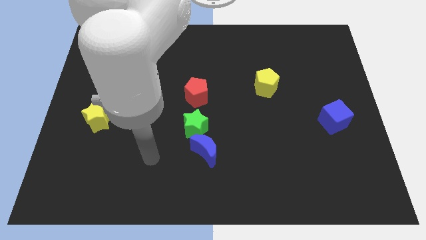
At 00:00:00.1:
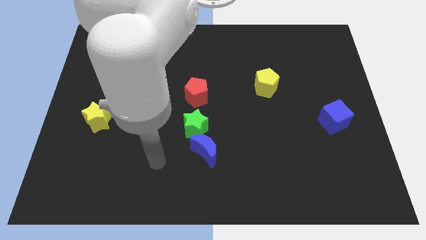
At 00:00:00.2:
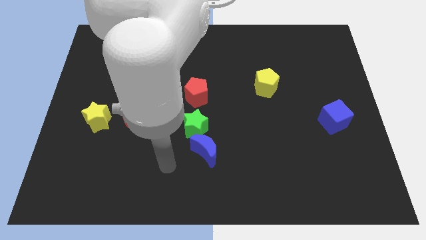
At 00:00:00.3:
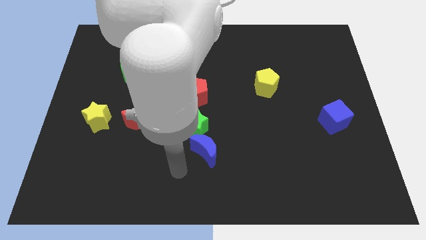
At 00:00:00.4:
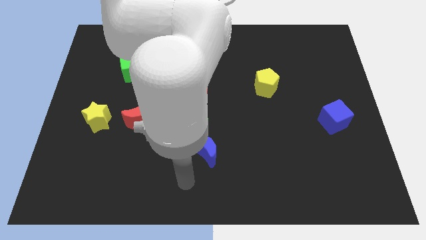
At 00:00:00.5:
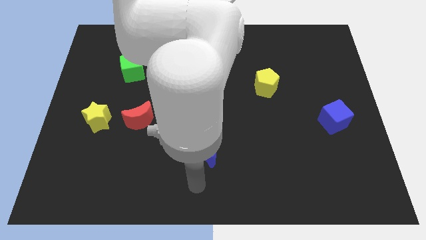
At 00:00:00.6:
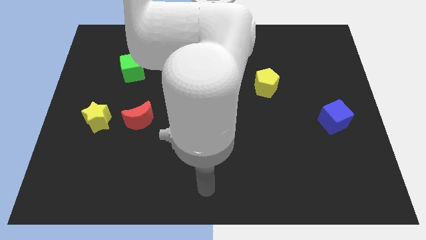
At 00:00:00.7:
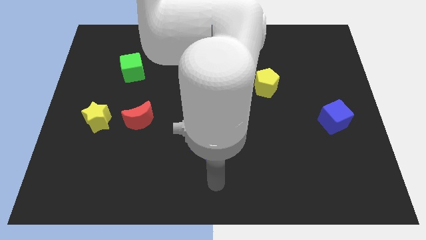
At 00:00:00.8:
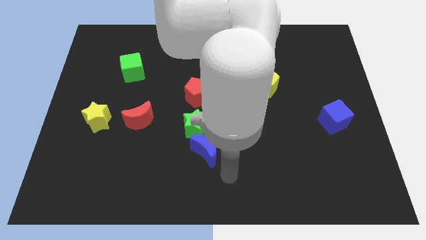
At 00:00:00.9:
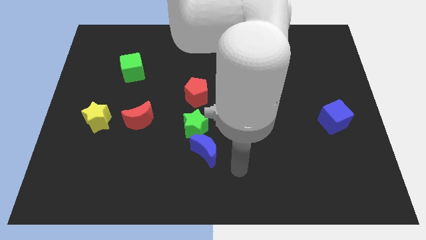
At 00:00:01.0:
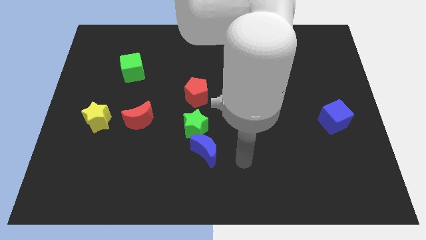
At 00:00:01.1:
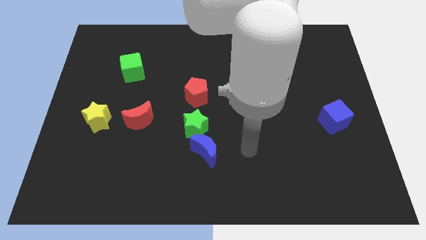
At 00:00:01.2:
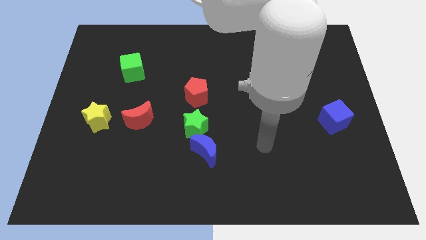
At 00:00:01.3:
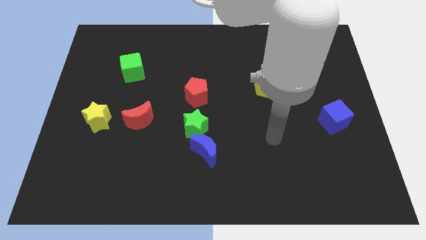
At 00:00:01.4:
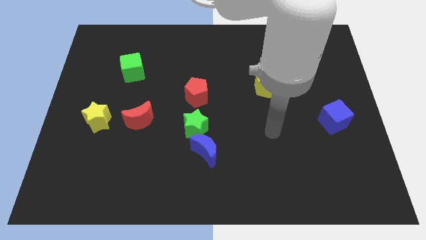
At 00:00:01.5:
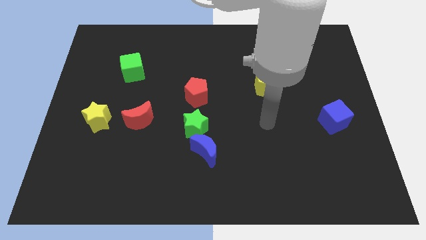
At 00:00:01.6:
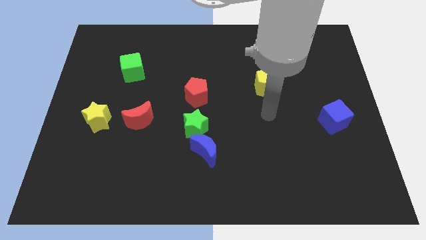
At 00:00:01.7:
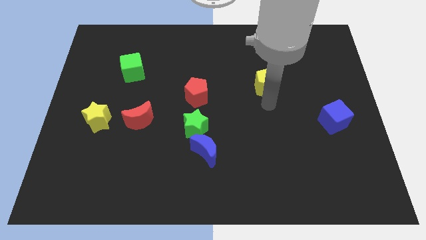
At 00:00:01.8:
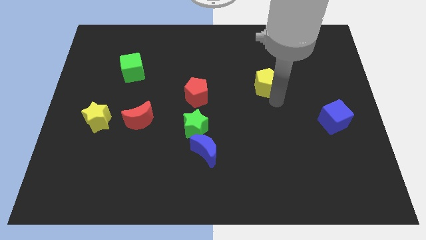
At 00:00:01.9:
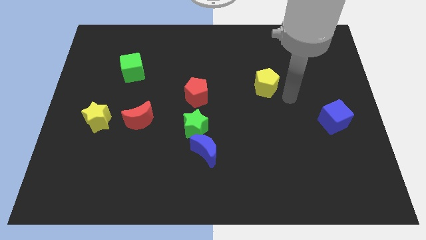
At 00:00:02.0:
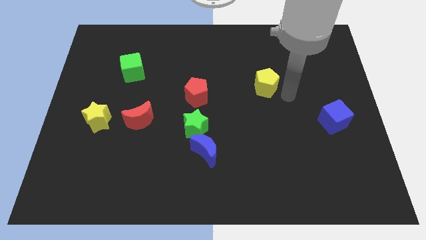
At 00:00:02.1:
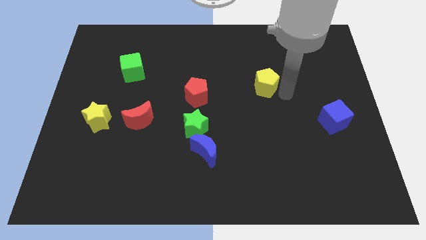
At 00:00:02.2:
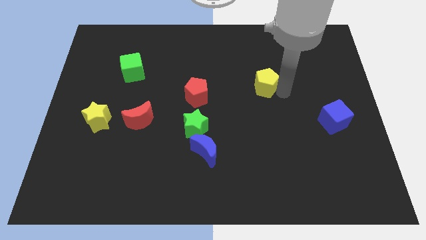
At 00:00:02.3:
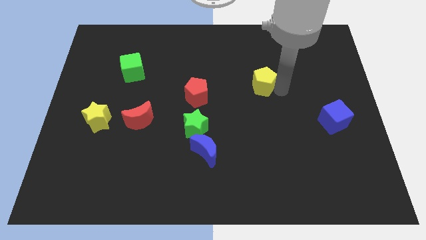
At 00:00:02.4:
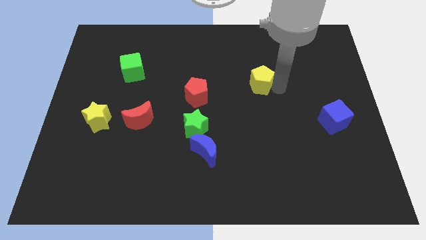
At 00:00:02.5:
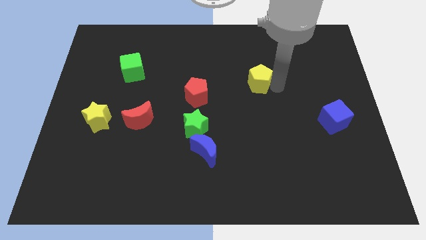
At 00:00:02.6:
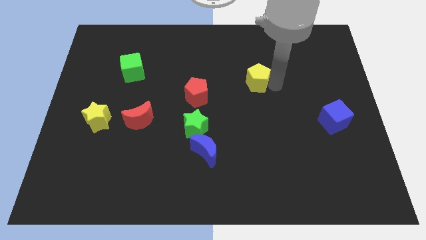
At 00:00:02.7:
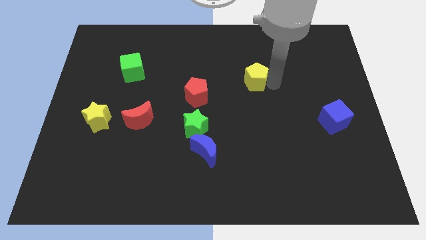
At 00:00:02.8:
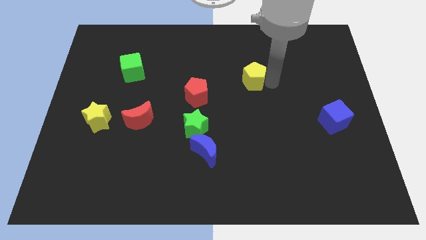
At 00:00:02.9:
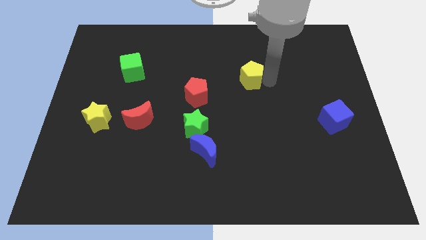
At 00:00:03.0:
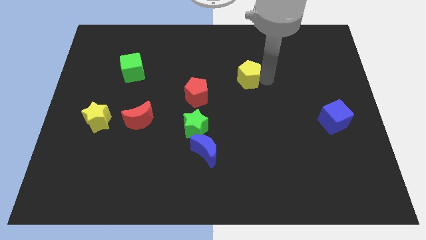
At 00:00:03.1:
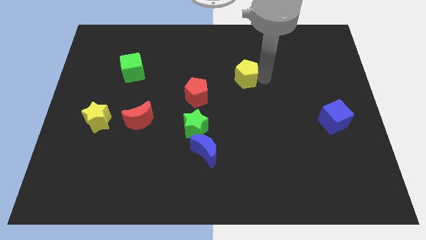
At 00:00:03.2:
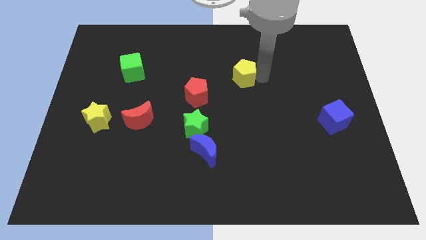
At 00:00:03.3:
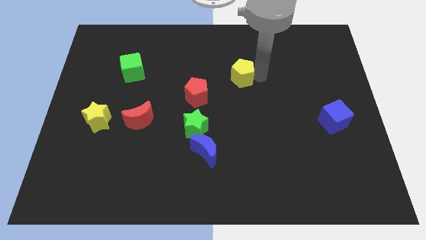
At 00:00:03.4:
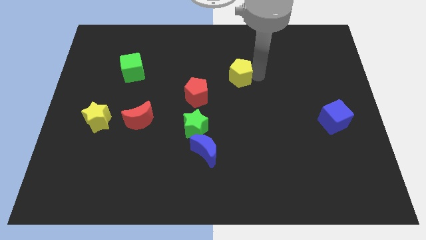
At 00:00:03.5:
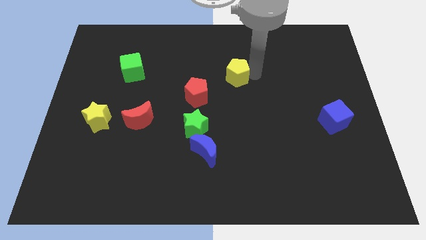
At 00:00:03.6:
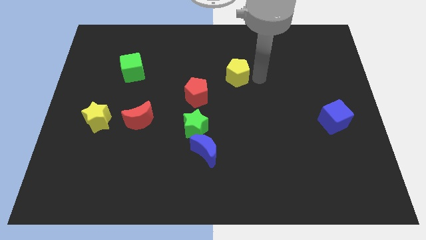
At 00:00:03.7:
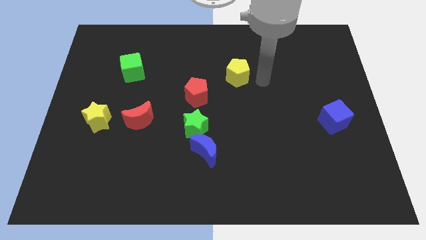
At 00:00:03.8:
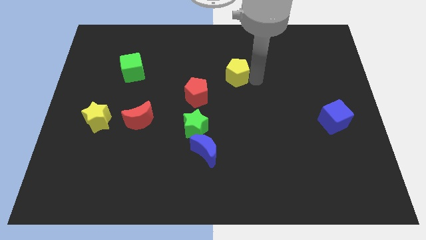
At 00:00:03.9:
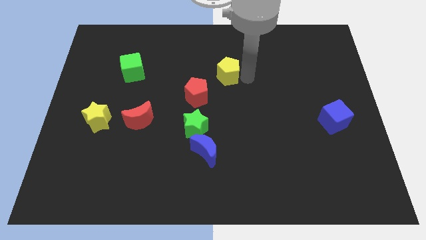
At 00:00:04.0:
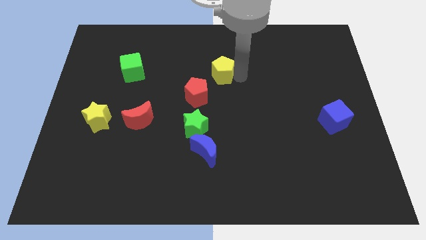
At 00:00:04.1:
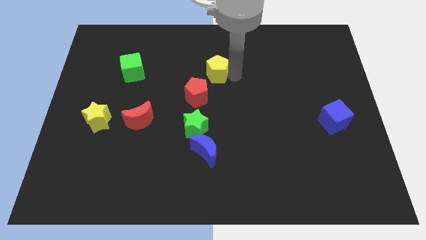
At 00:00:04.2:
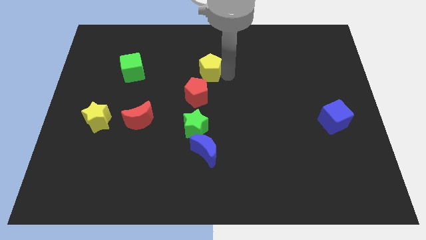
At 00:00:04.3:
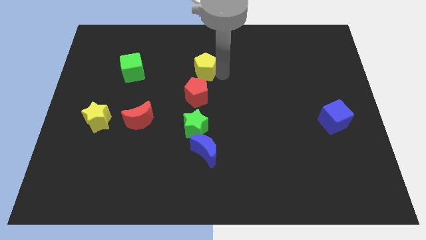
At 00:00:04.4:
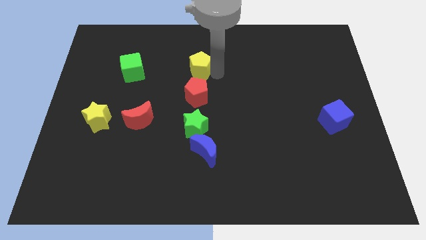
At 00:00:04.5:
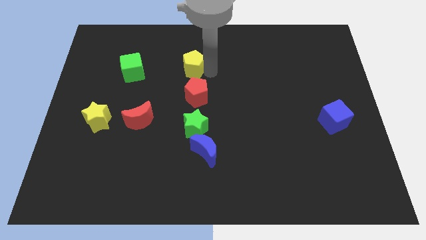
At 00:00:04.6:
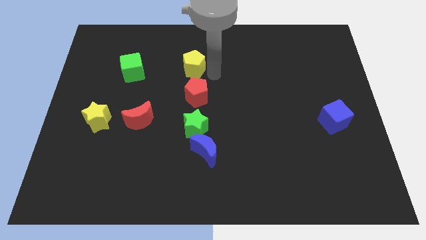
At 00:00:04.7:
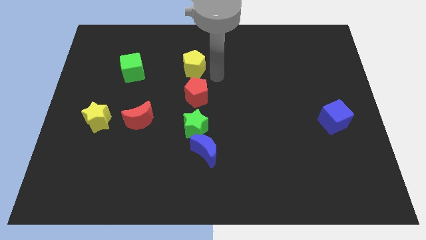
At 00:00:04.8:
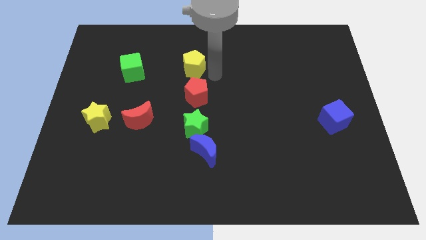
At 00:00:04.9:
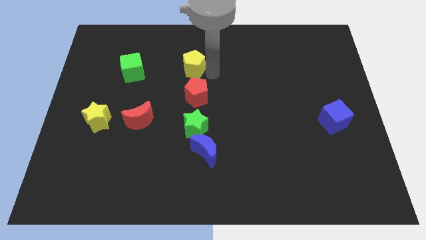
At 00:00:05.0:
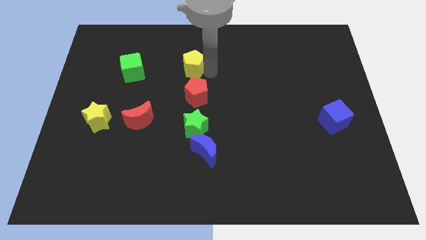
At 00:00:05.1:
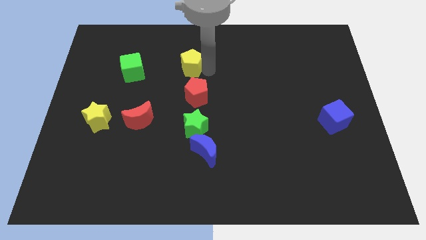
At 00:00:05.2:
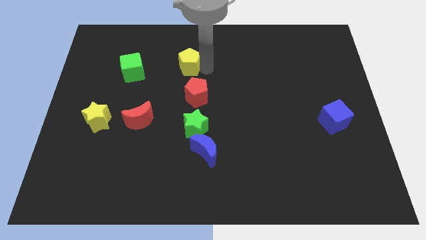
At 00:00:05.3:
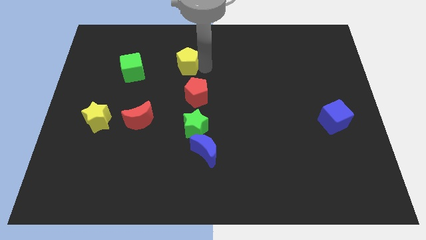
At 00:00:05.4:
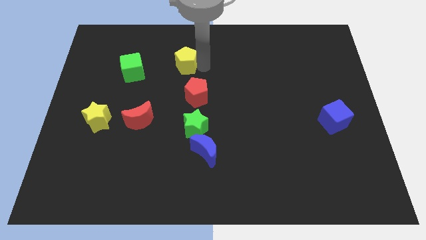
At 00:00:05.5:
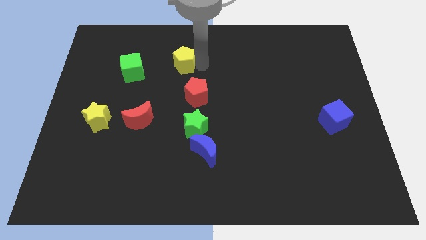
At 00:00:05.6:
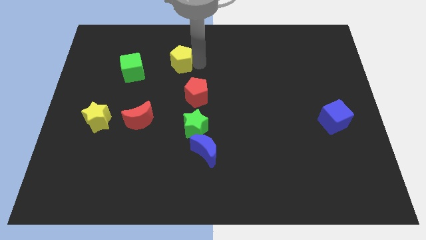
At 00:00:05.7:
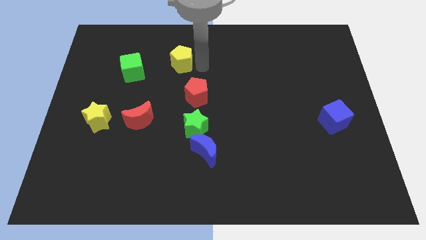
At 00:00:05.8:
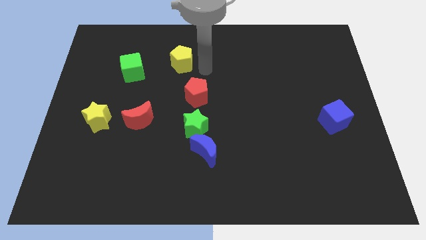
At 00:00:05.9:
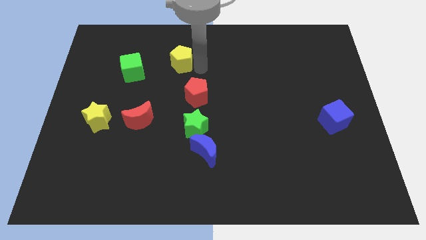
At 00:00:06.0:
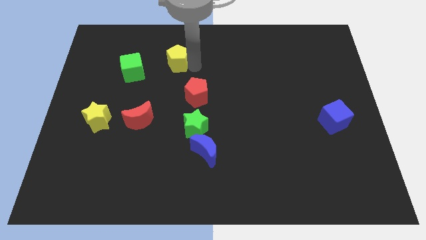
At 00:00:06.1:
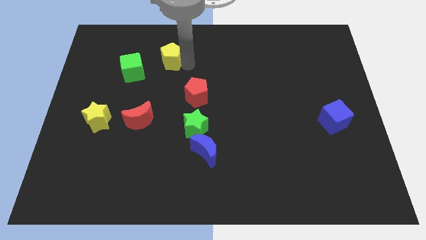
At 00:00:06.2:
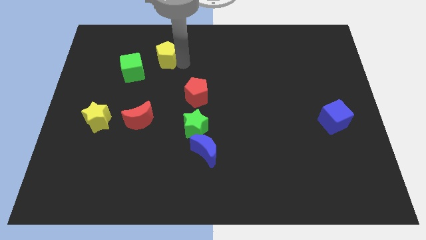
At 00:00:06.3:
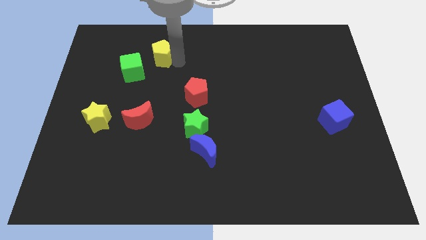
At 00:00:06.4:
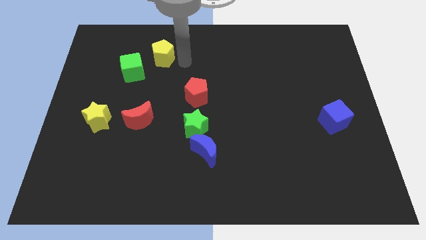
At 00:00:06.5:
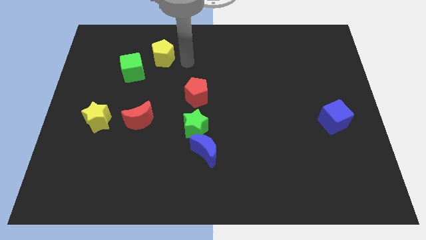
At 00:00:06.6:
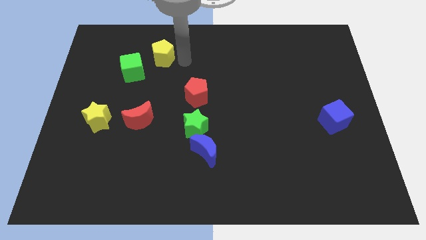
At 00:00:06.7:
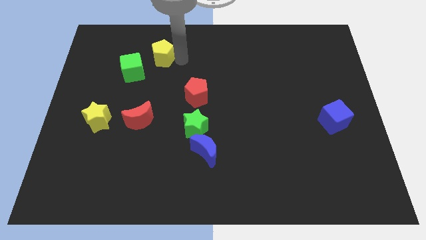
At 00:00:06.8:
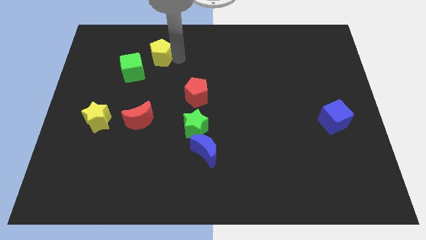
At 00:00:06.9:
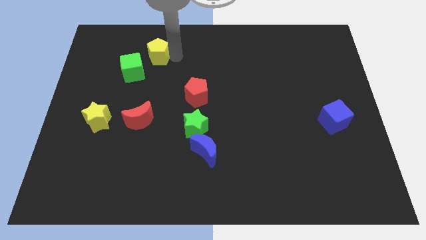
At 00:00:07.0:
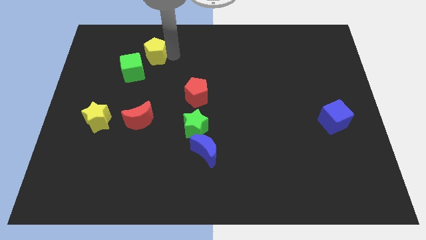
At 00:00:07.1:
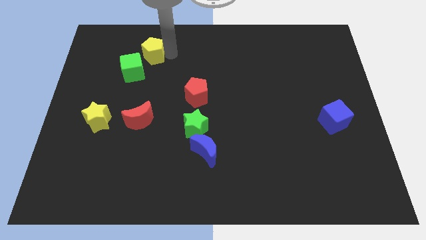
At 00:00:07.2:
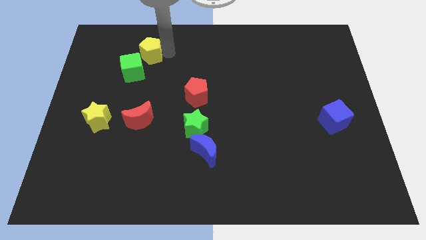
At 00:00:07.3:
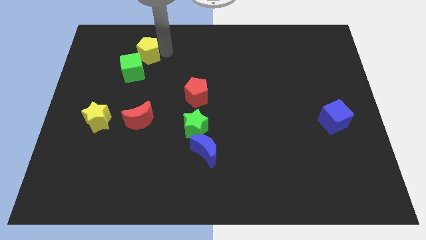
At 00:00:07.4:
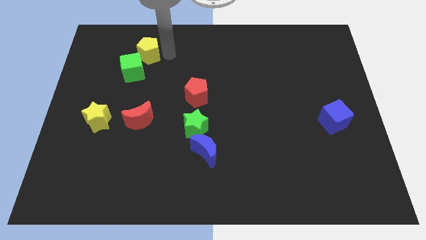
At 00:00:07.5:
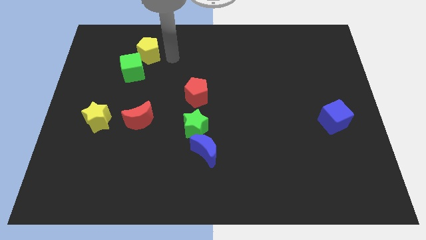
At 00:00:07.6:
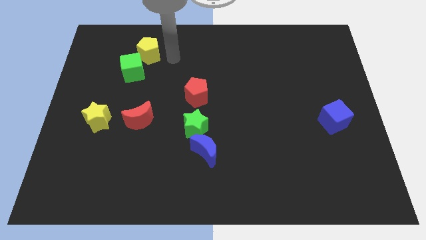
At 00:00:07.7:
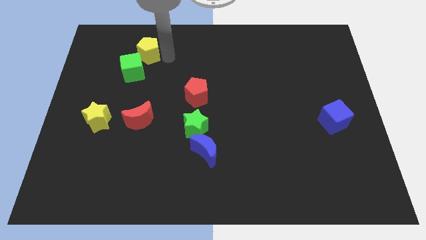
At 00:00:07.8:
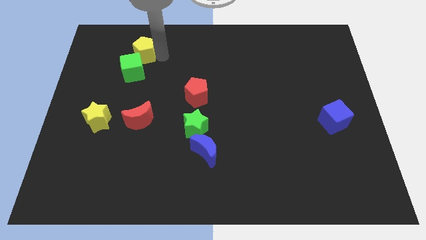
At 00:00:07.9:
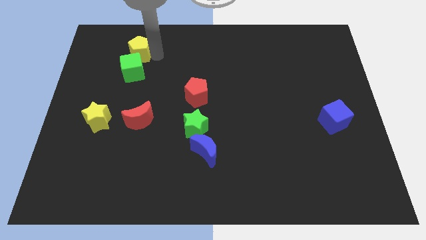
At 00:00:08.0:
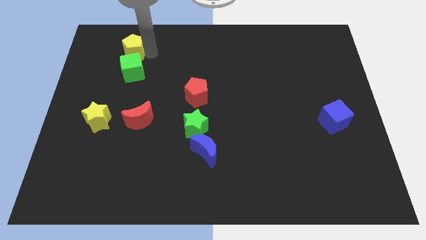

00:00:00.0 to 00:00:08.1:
slide the yellow pentagon to the top left of the green cube
